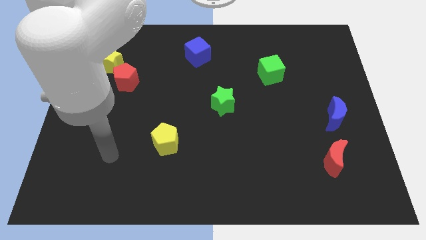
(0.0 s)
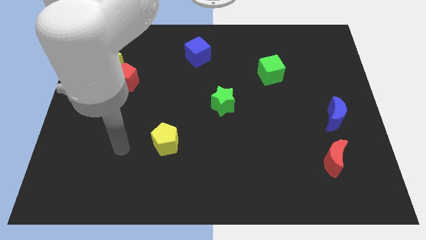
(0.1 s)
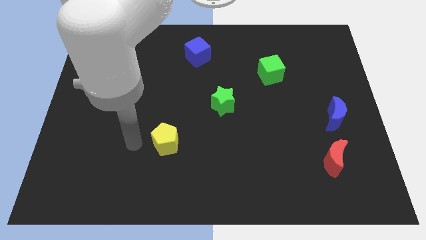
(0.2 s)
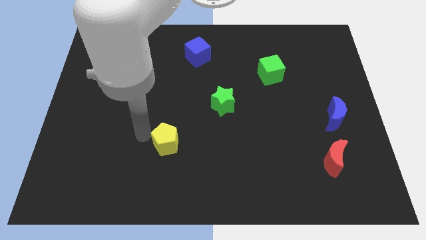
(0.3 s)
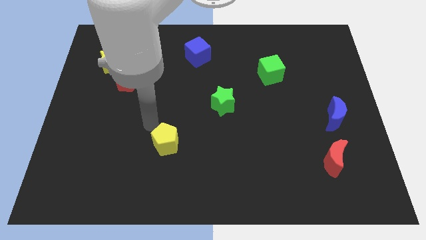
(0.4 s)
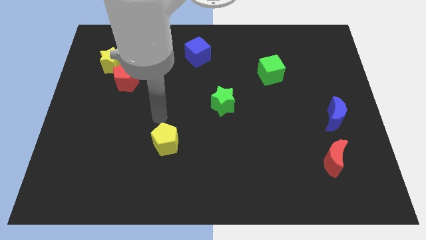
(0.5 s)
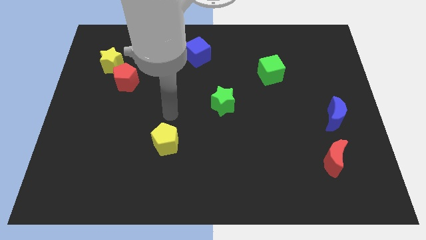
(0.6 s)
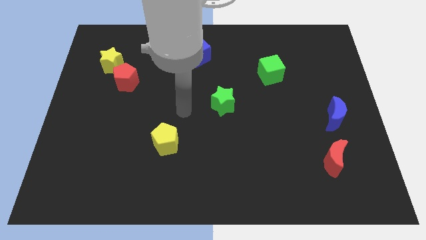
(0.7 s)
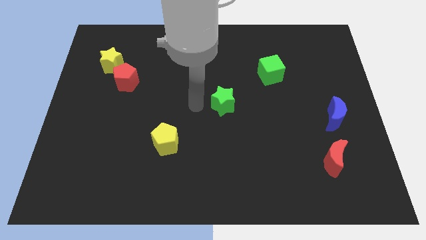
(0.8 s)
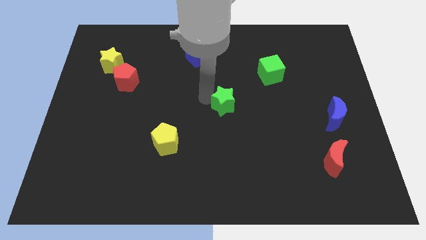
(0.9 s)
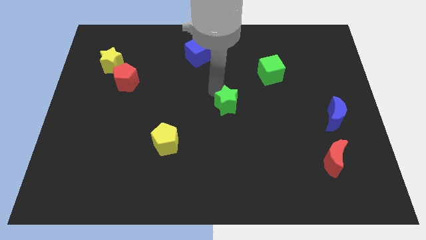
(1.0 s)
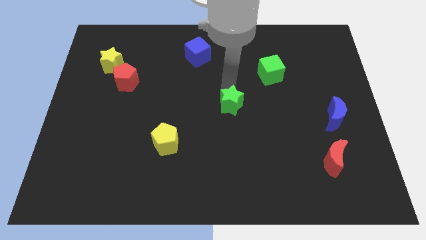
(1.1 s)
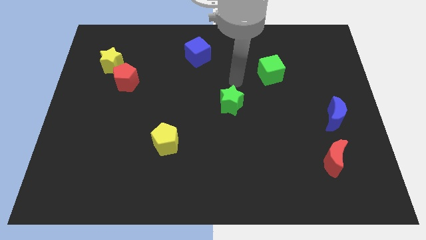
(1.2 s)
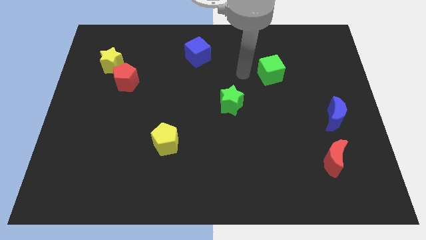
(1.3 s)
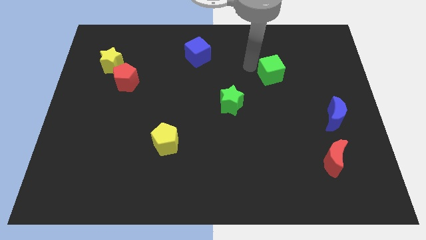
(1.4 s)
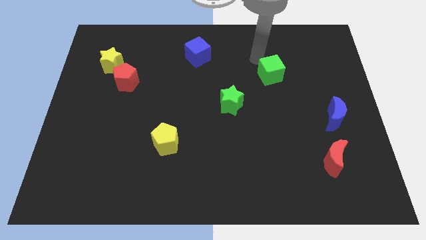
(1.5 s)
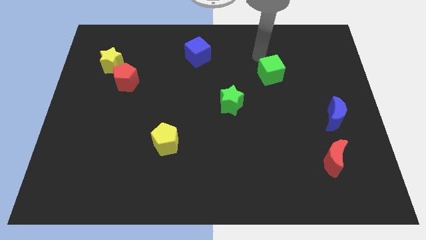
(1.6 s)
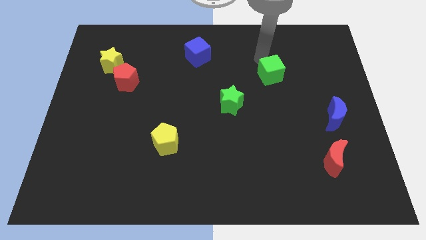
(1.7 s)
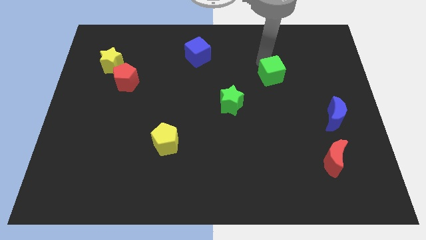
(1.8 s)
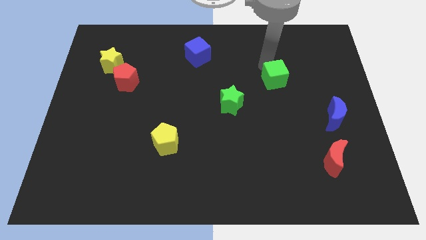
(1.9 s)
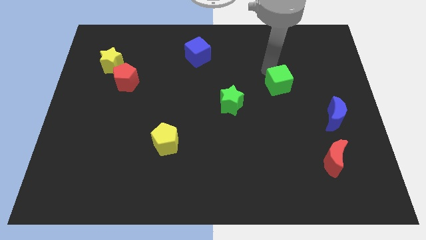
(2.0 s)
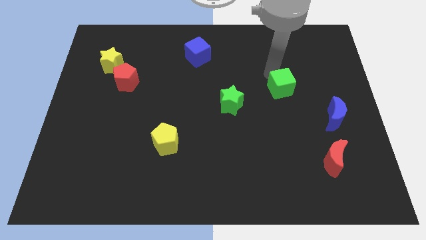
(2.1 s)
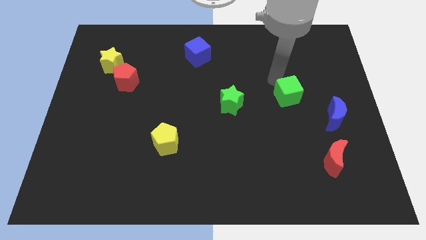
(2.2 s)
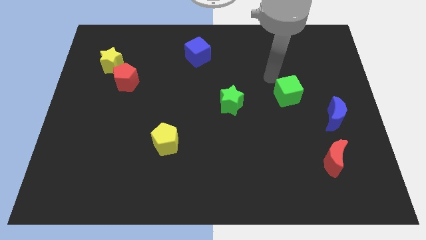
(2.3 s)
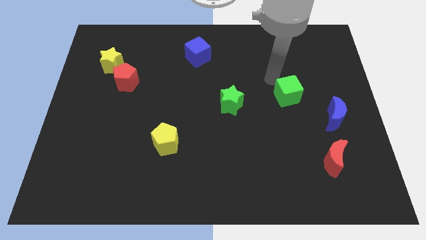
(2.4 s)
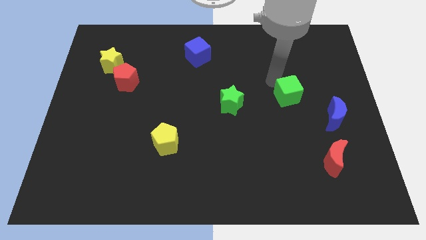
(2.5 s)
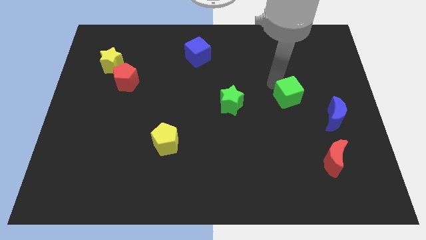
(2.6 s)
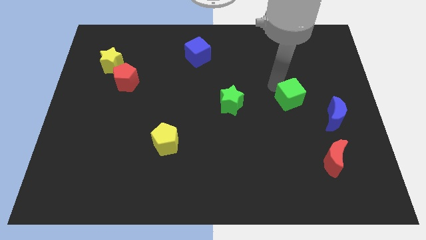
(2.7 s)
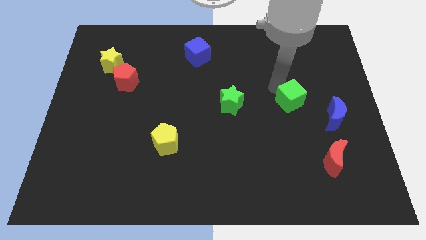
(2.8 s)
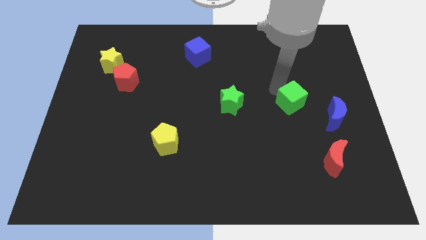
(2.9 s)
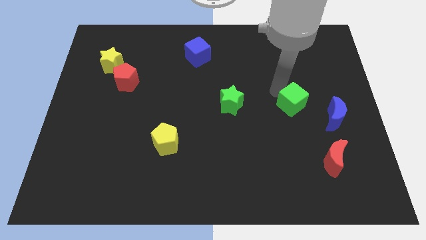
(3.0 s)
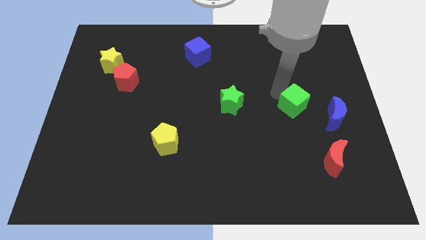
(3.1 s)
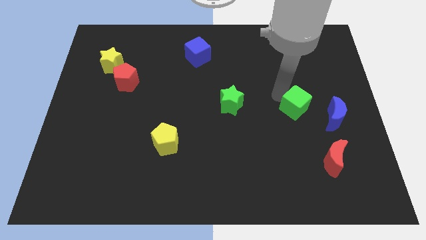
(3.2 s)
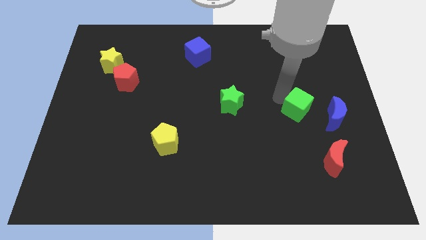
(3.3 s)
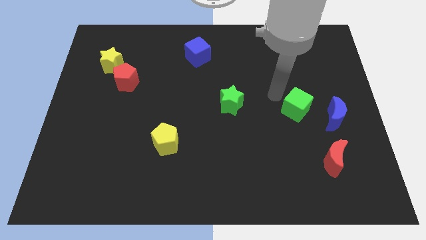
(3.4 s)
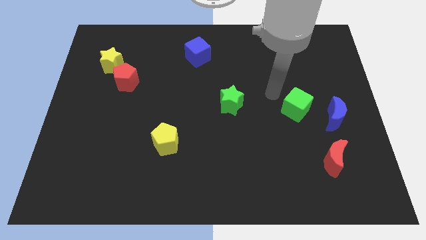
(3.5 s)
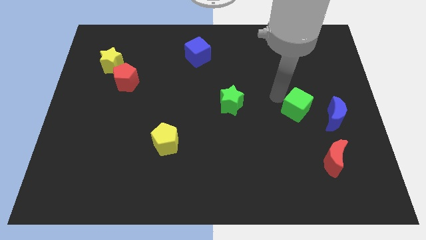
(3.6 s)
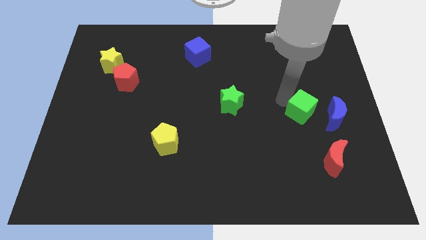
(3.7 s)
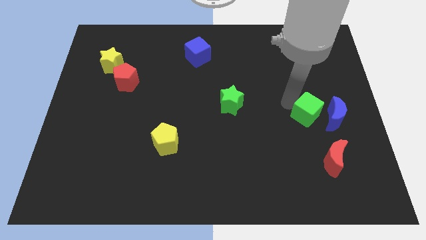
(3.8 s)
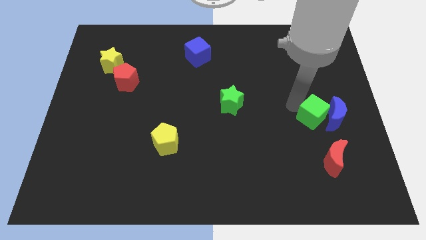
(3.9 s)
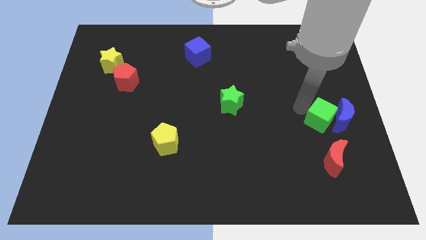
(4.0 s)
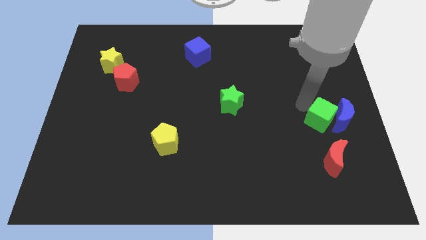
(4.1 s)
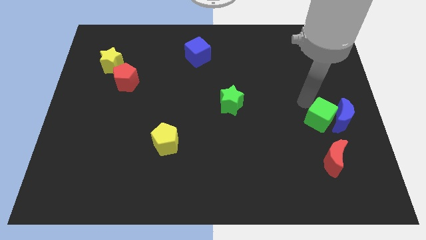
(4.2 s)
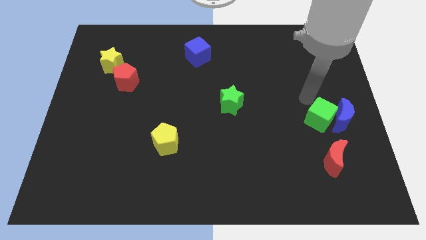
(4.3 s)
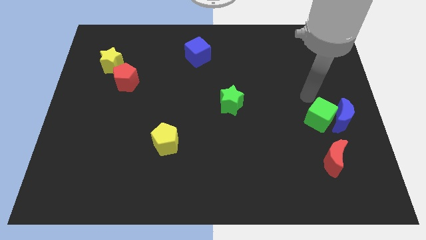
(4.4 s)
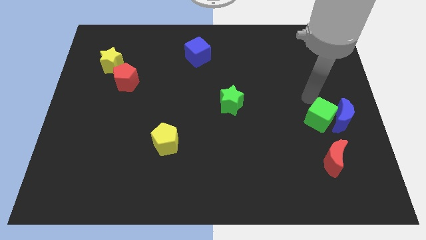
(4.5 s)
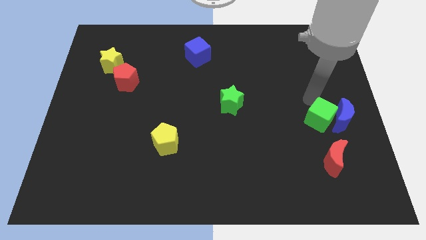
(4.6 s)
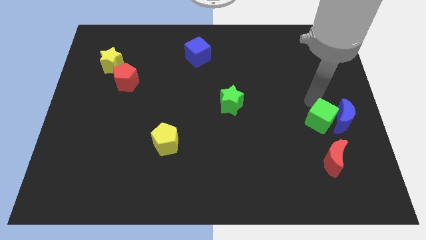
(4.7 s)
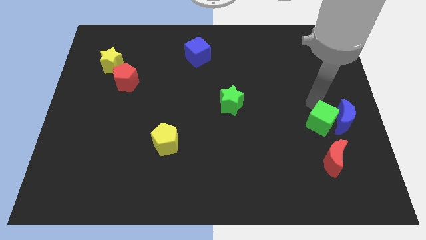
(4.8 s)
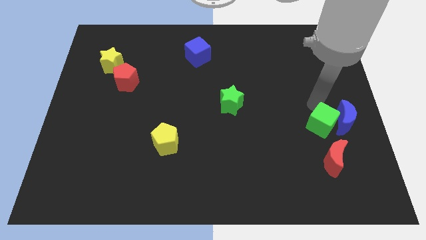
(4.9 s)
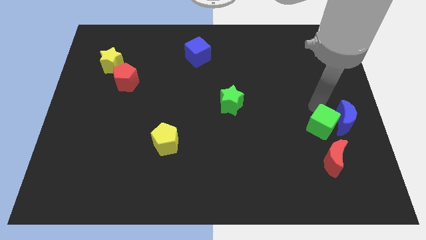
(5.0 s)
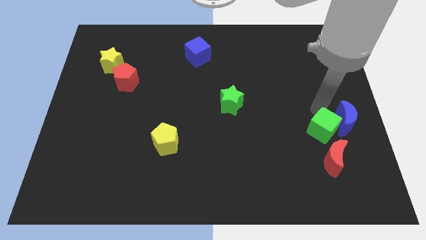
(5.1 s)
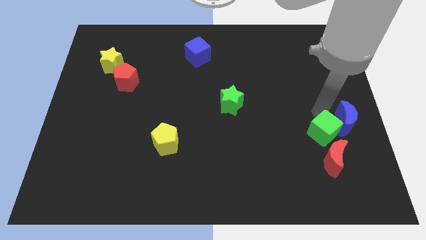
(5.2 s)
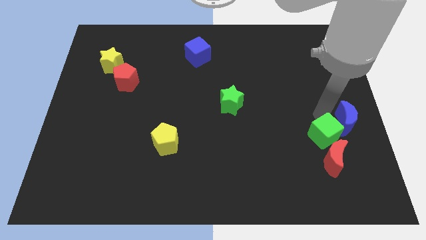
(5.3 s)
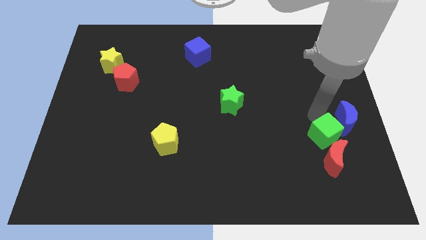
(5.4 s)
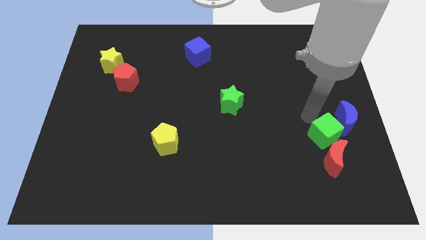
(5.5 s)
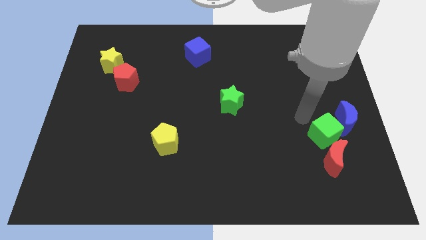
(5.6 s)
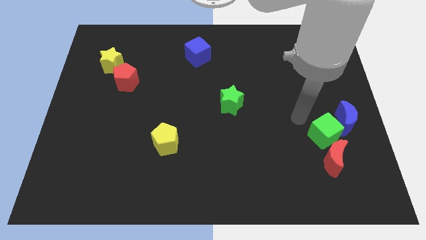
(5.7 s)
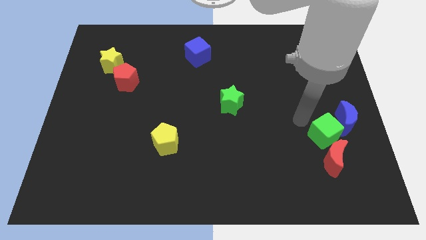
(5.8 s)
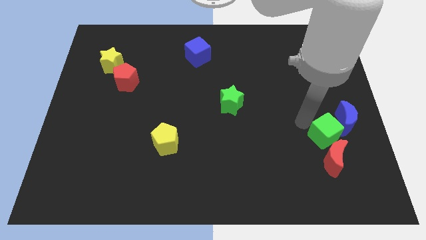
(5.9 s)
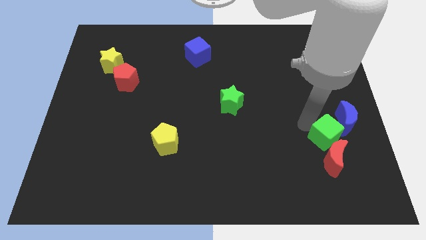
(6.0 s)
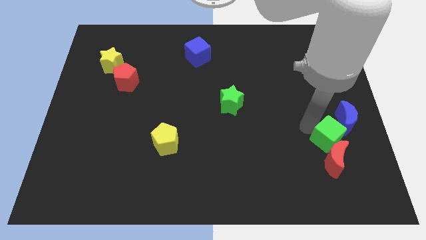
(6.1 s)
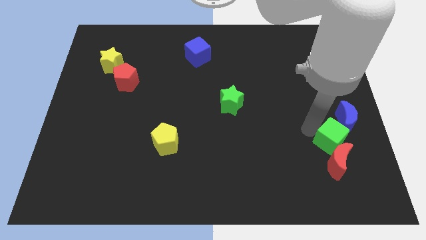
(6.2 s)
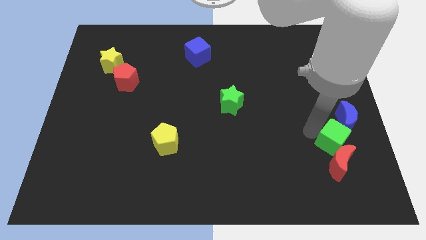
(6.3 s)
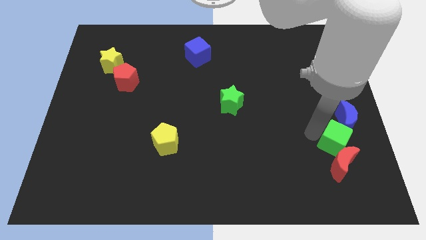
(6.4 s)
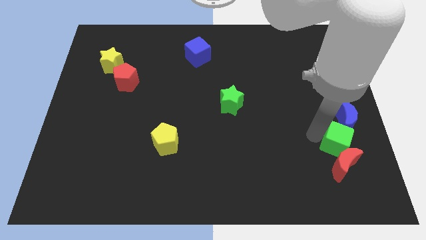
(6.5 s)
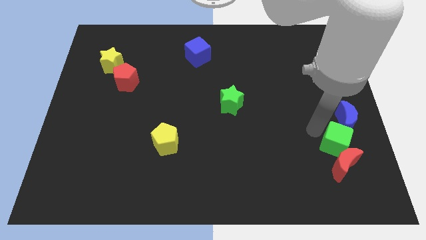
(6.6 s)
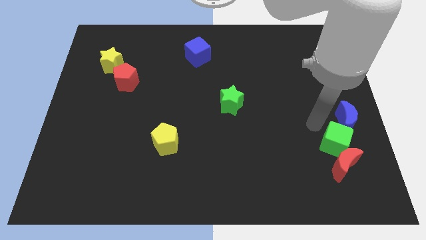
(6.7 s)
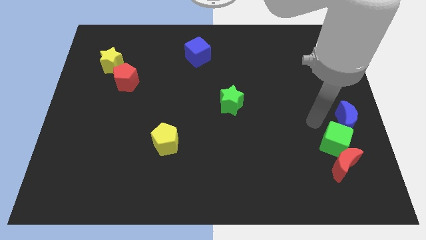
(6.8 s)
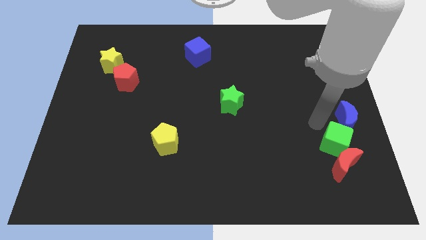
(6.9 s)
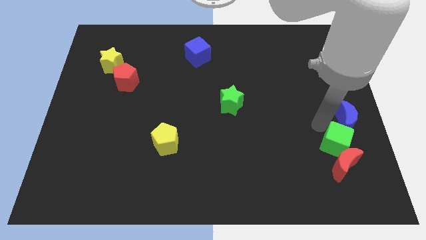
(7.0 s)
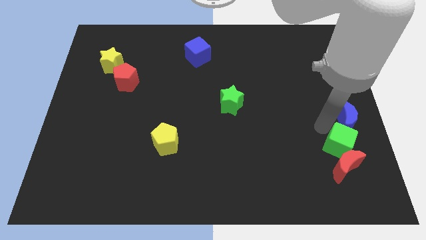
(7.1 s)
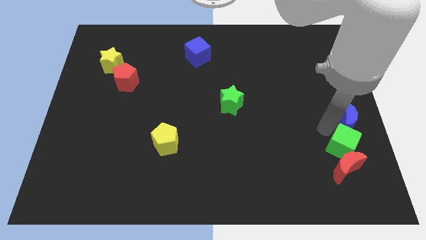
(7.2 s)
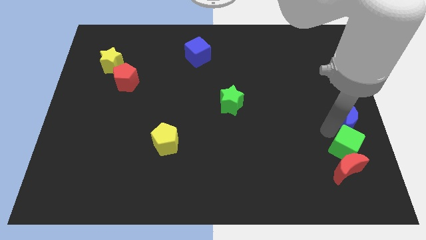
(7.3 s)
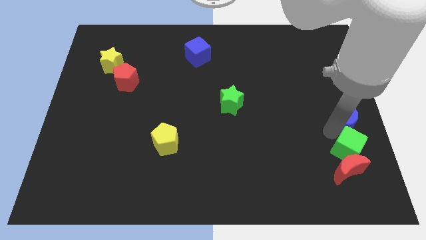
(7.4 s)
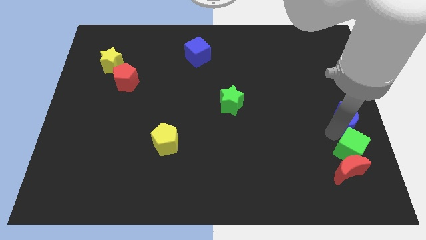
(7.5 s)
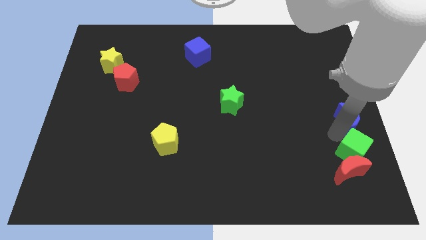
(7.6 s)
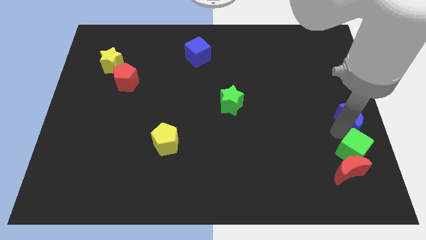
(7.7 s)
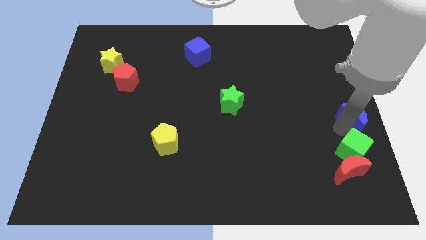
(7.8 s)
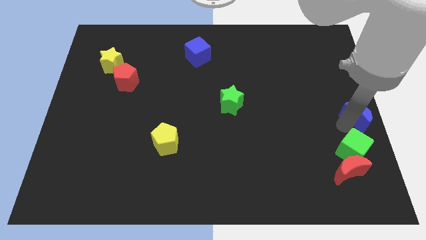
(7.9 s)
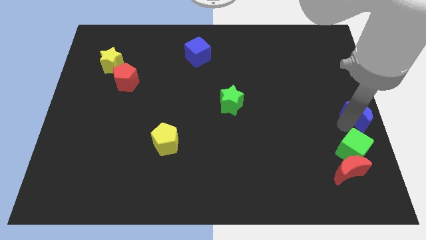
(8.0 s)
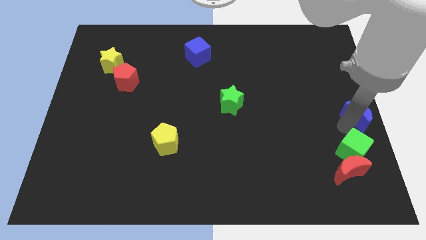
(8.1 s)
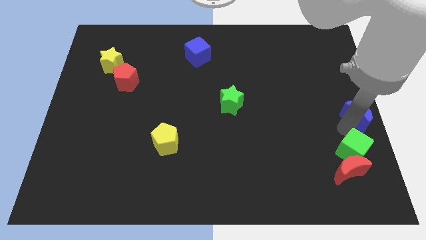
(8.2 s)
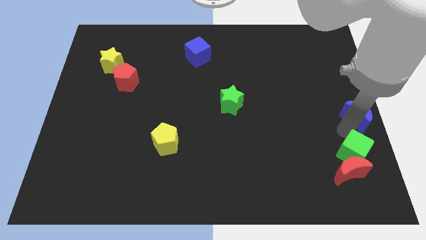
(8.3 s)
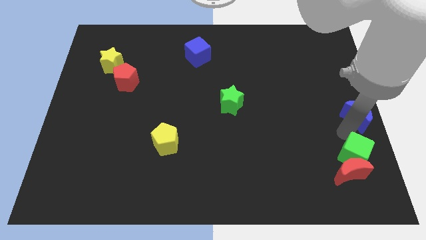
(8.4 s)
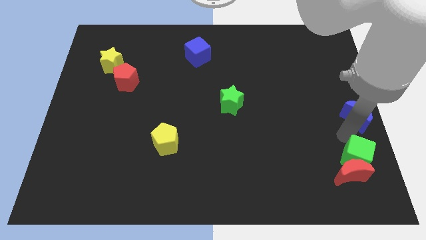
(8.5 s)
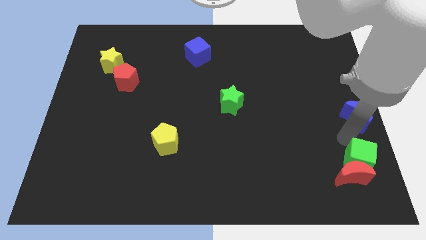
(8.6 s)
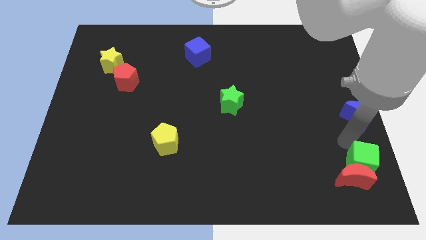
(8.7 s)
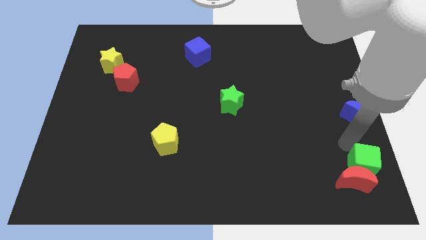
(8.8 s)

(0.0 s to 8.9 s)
push the green cube to the bottom right corner
